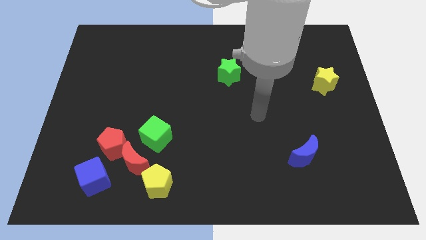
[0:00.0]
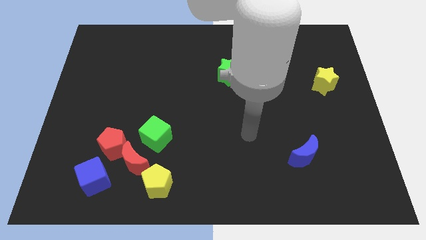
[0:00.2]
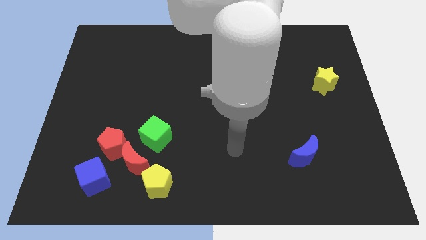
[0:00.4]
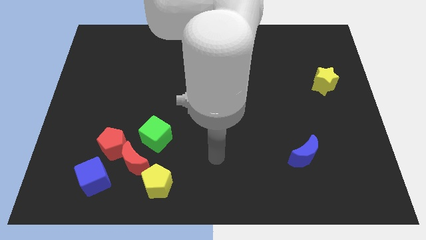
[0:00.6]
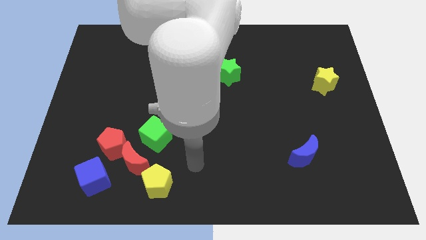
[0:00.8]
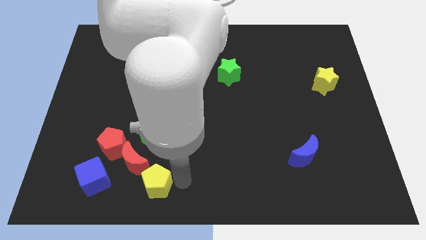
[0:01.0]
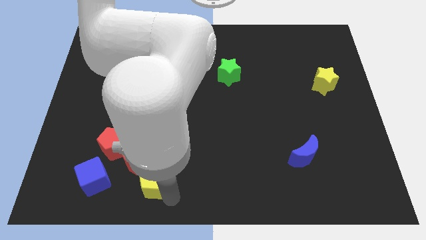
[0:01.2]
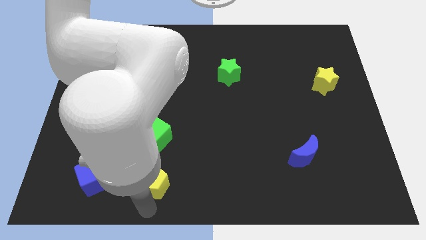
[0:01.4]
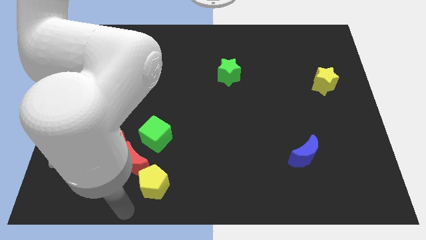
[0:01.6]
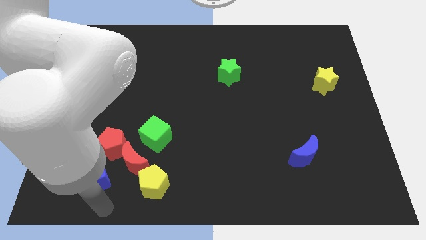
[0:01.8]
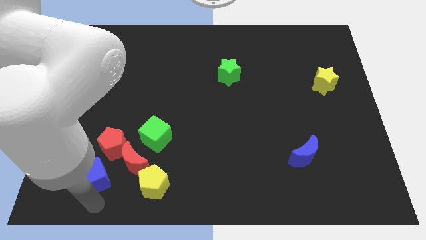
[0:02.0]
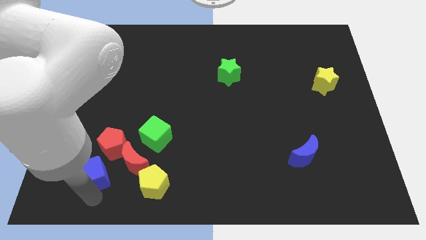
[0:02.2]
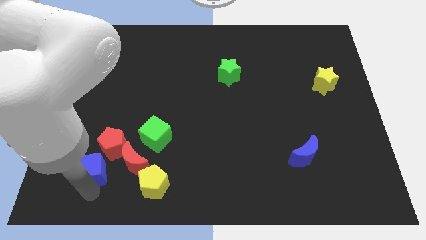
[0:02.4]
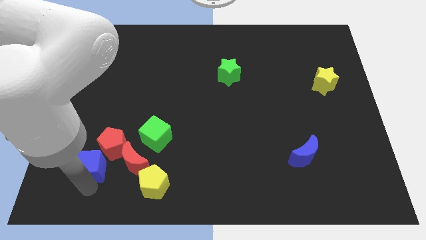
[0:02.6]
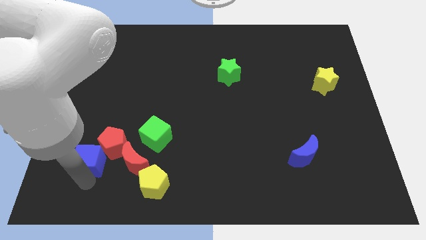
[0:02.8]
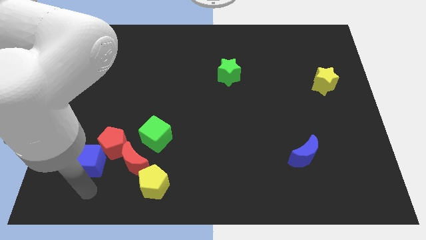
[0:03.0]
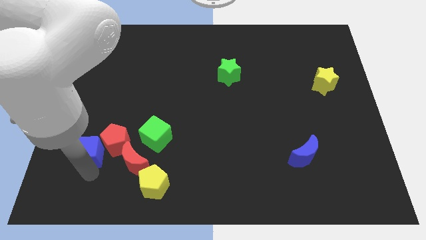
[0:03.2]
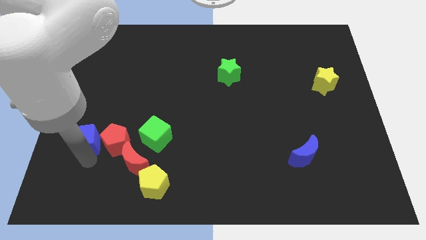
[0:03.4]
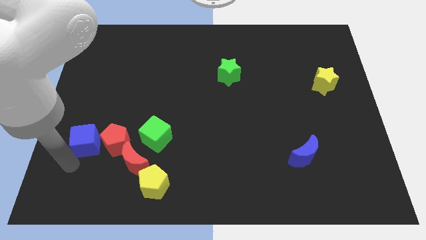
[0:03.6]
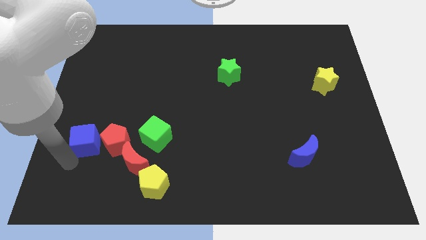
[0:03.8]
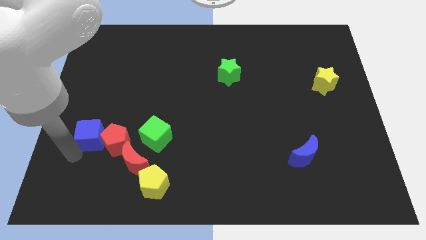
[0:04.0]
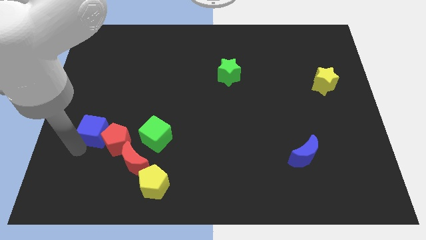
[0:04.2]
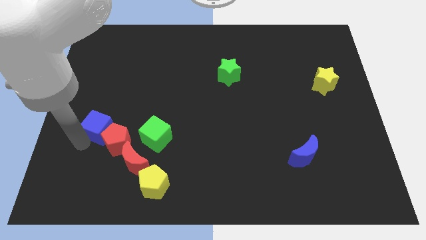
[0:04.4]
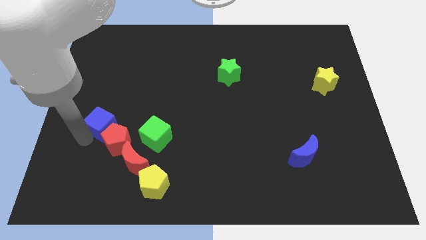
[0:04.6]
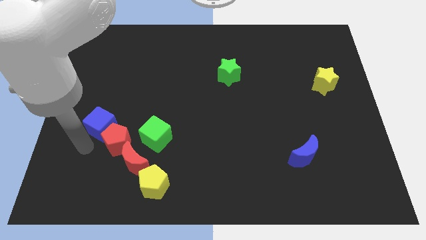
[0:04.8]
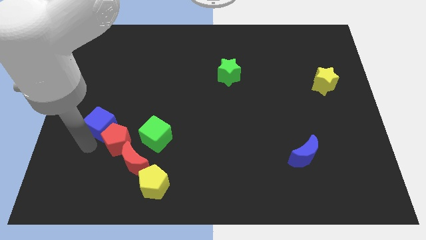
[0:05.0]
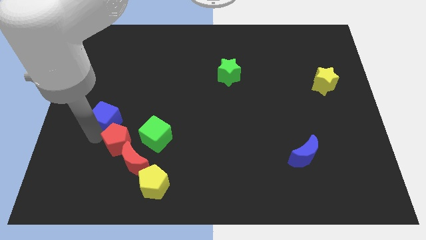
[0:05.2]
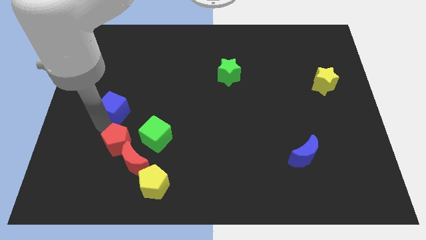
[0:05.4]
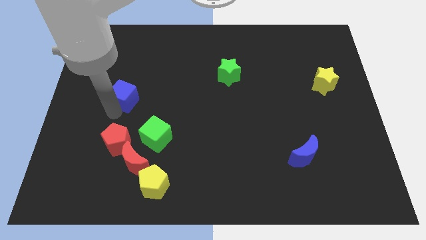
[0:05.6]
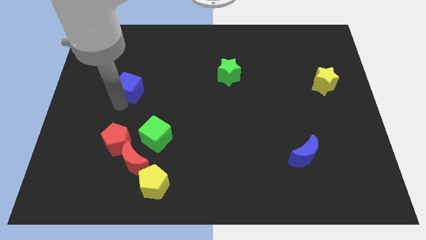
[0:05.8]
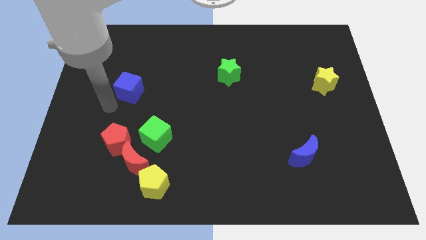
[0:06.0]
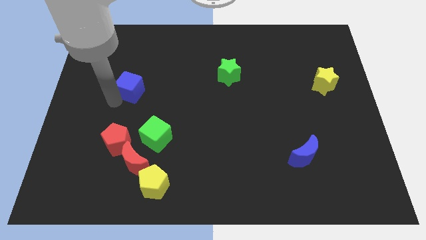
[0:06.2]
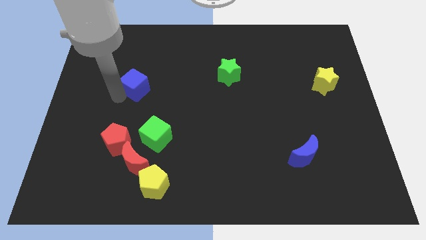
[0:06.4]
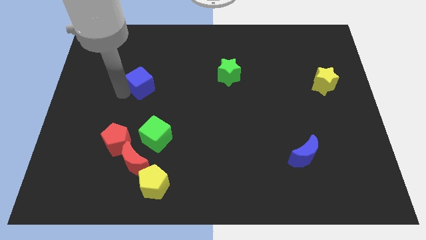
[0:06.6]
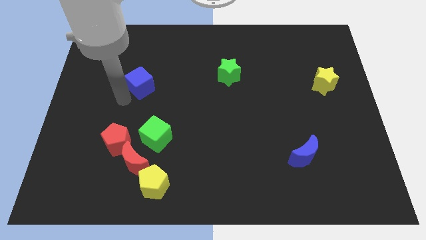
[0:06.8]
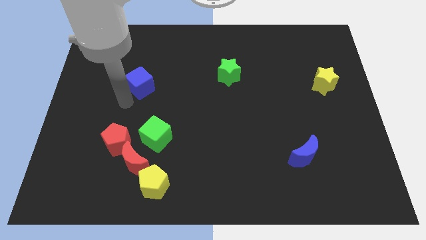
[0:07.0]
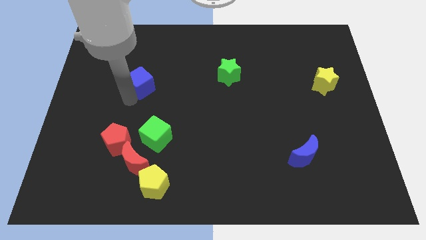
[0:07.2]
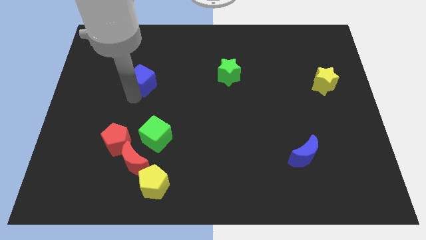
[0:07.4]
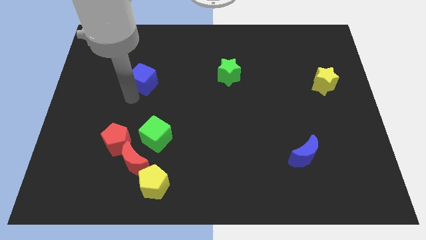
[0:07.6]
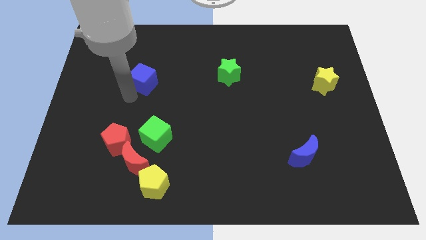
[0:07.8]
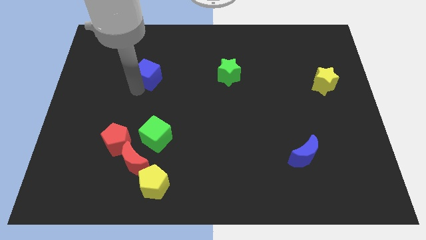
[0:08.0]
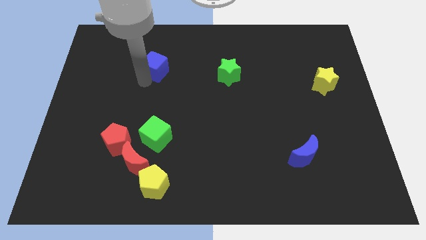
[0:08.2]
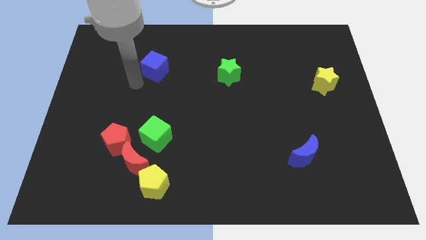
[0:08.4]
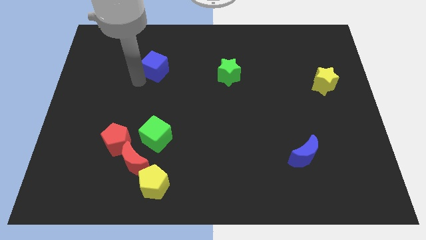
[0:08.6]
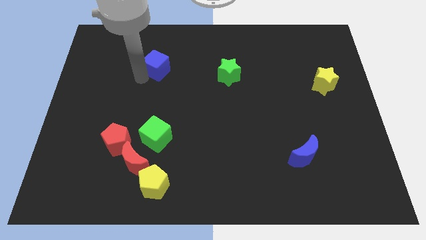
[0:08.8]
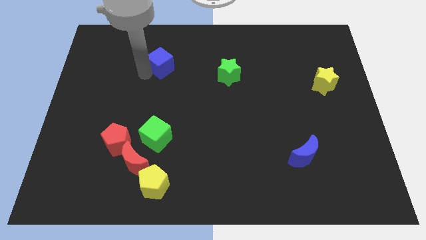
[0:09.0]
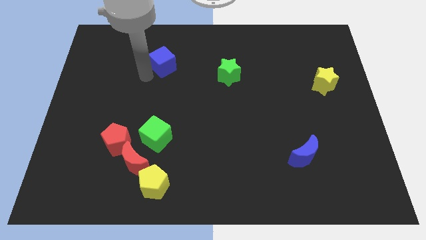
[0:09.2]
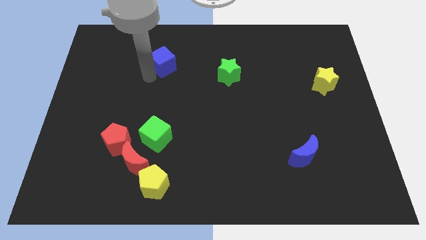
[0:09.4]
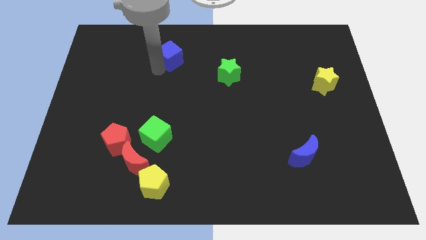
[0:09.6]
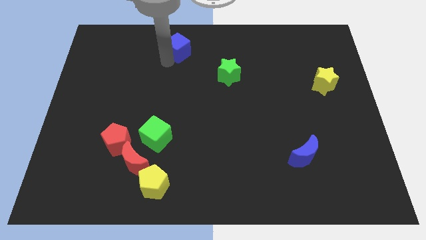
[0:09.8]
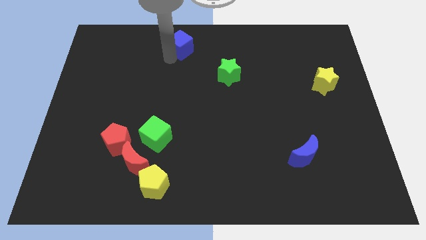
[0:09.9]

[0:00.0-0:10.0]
slide the blue cube to the towards your base
